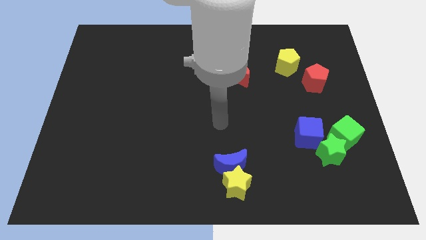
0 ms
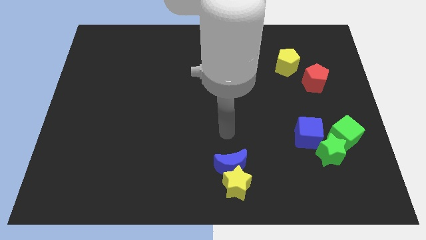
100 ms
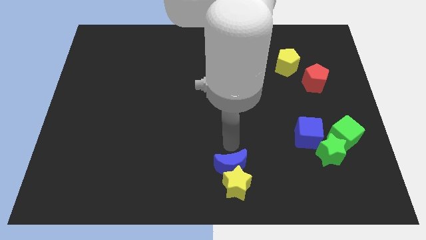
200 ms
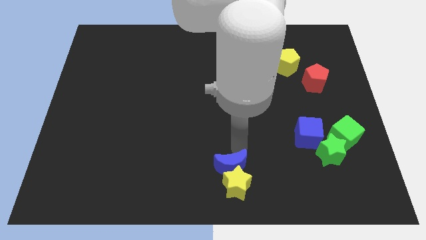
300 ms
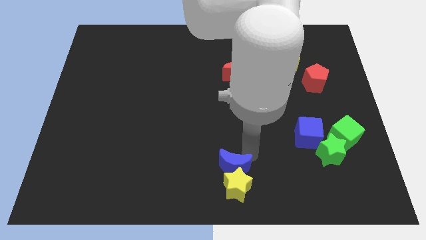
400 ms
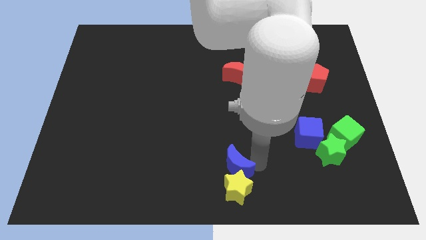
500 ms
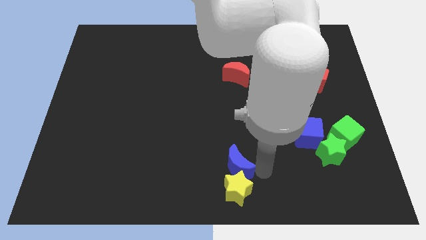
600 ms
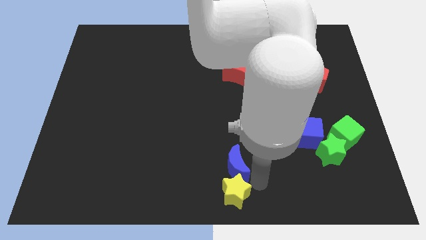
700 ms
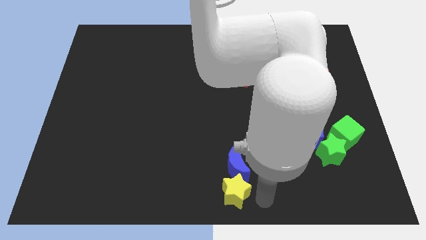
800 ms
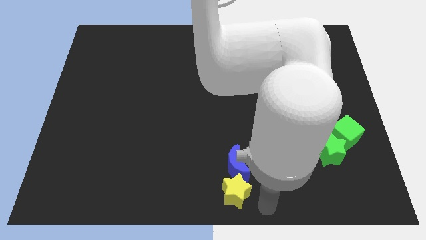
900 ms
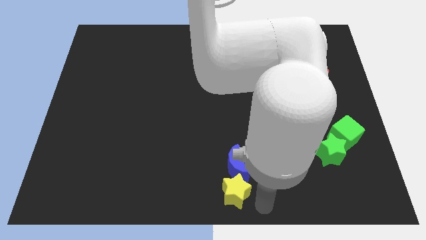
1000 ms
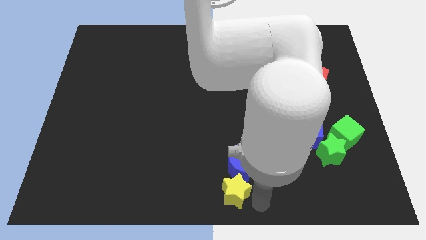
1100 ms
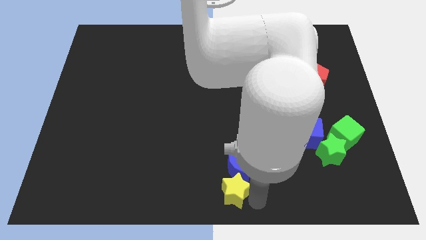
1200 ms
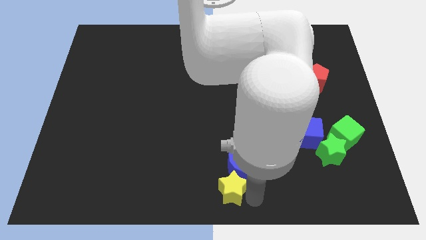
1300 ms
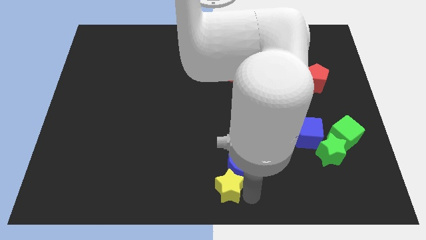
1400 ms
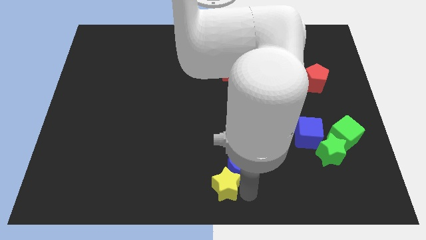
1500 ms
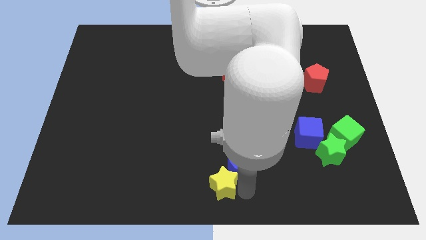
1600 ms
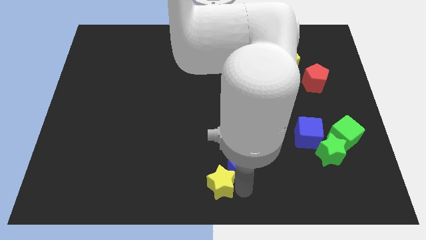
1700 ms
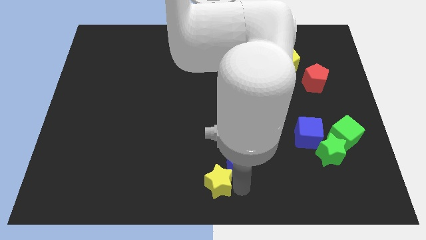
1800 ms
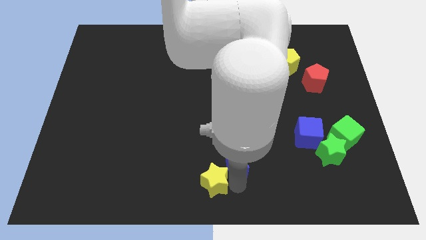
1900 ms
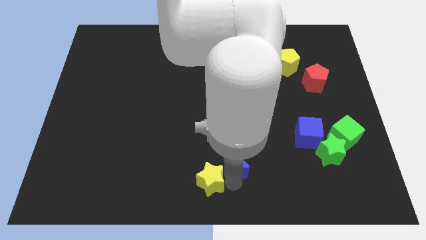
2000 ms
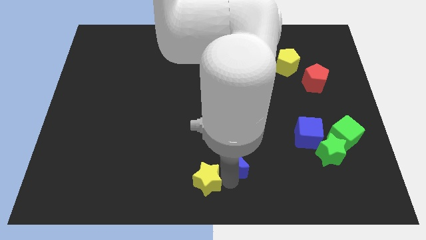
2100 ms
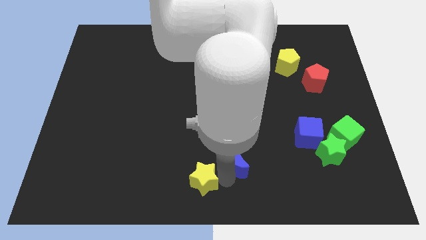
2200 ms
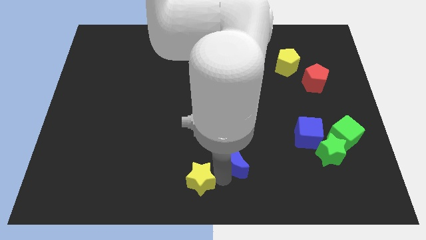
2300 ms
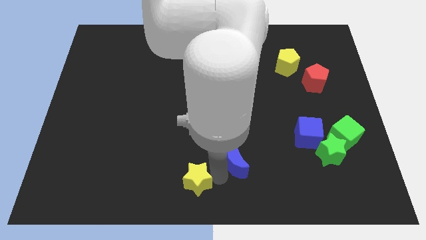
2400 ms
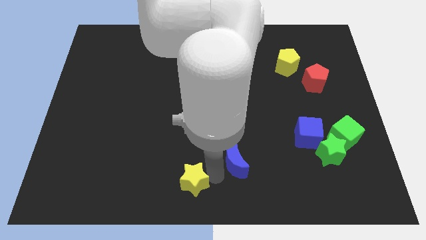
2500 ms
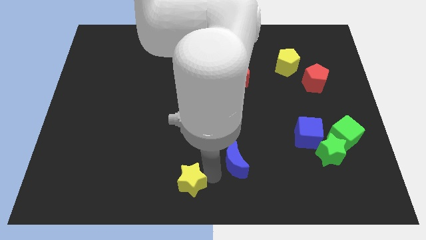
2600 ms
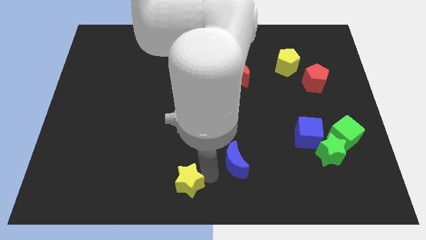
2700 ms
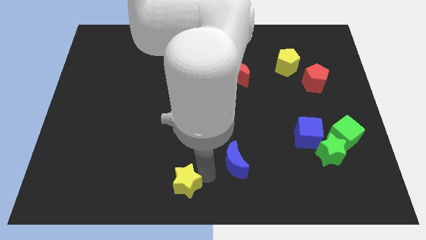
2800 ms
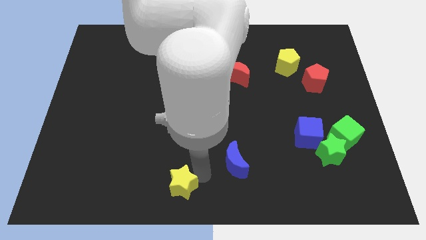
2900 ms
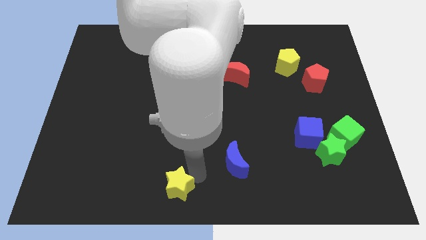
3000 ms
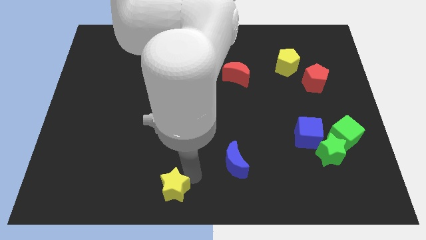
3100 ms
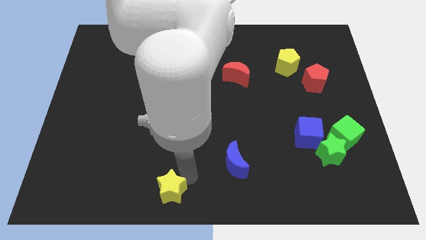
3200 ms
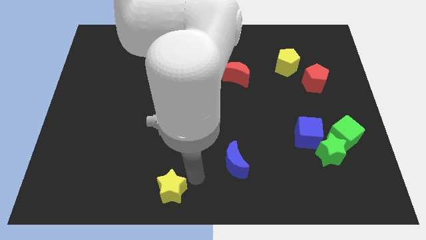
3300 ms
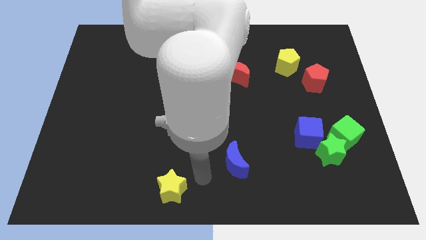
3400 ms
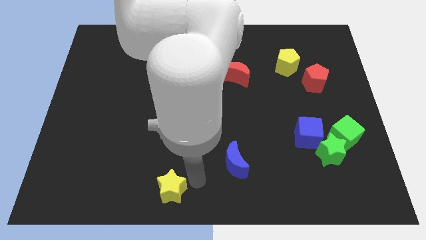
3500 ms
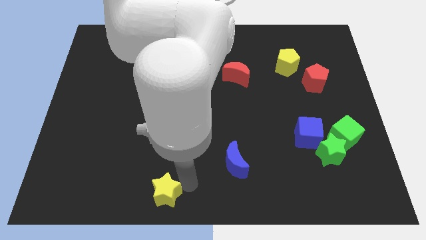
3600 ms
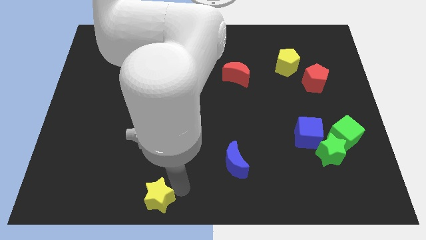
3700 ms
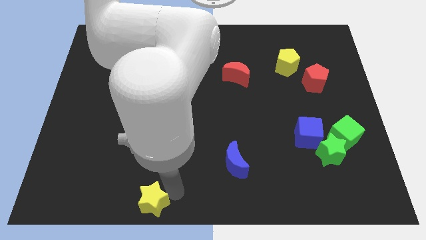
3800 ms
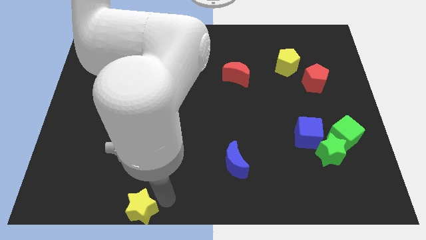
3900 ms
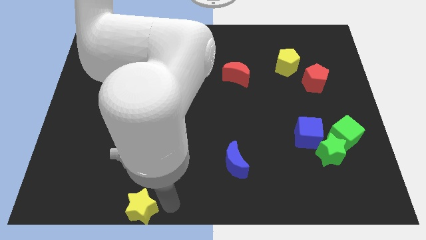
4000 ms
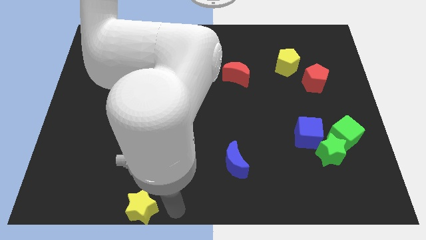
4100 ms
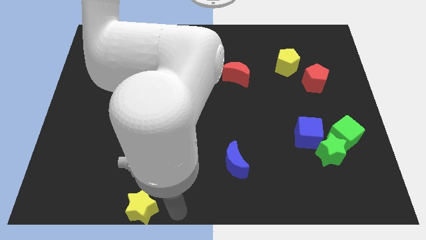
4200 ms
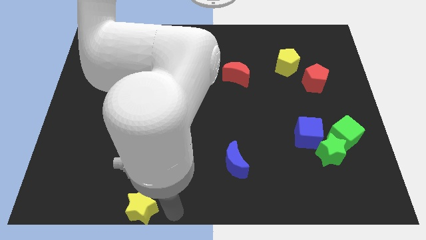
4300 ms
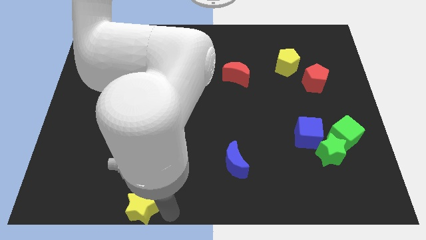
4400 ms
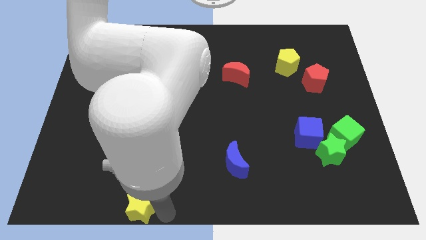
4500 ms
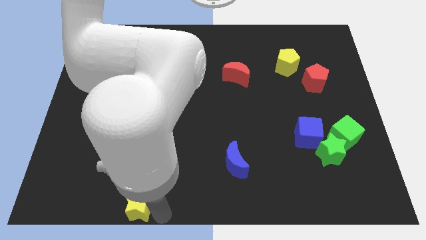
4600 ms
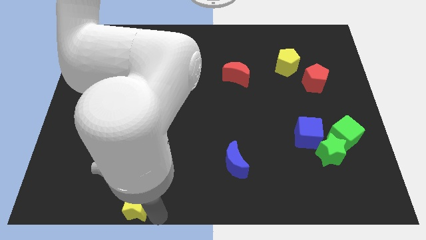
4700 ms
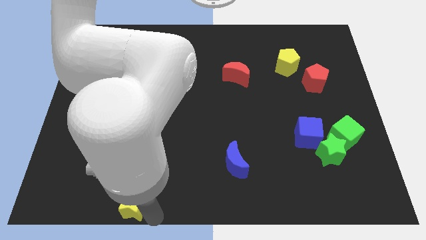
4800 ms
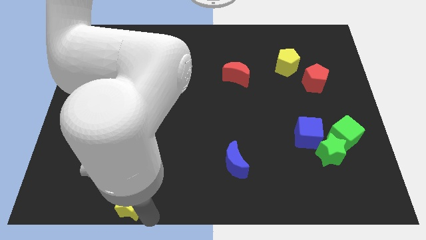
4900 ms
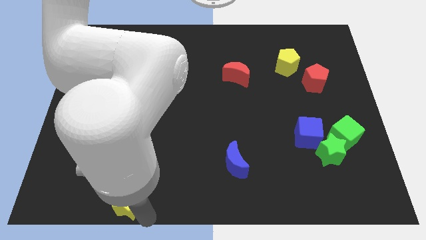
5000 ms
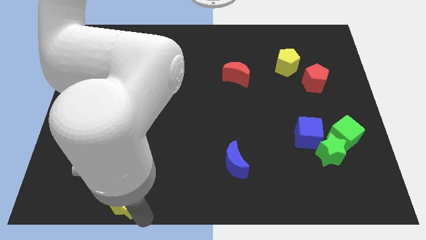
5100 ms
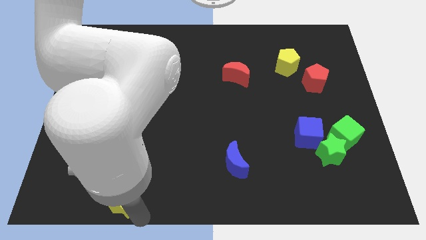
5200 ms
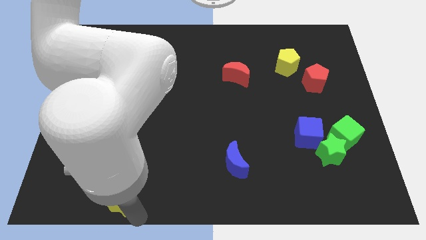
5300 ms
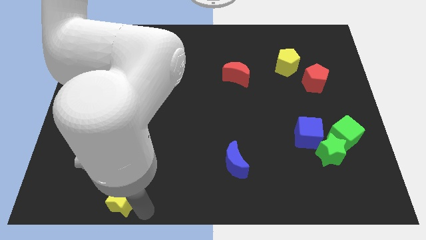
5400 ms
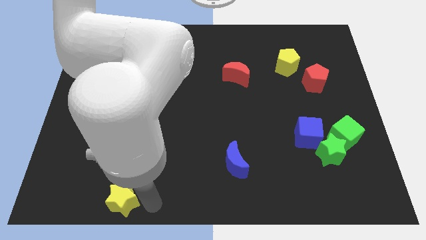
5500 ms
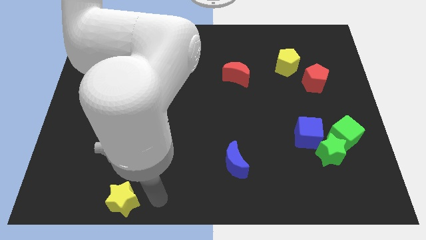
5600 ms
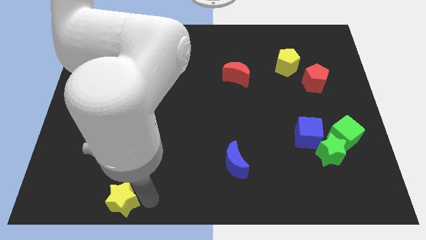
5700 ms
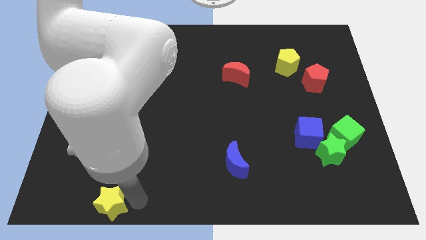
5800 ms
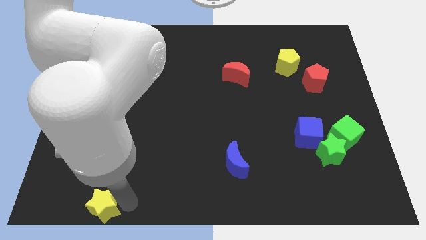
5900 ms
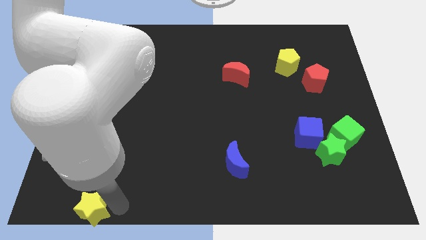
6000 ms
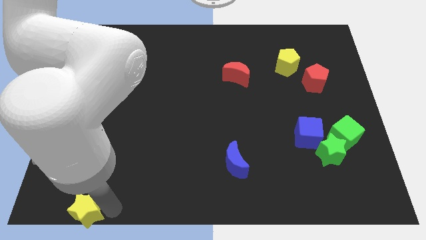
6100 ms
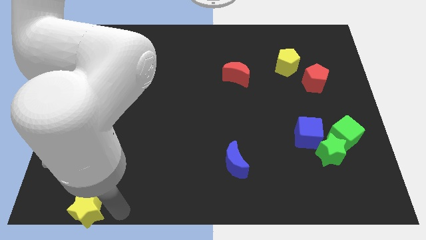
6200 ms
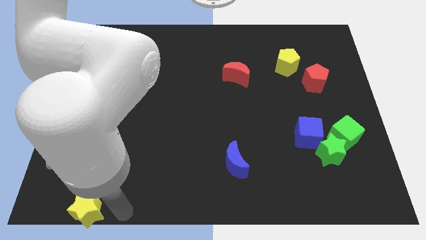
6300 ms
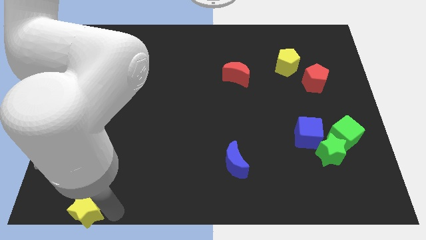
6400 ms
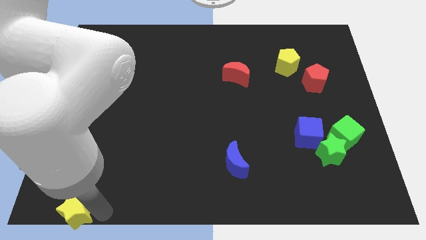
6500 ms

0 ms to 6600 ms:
slide the yellow star to the bottom left corner
